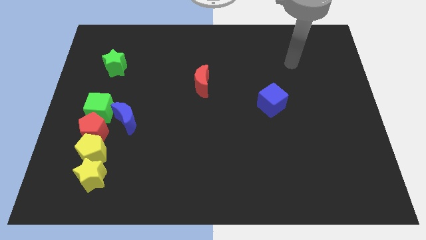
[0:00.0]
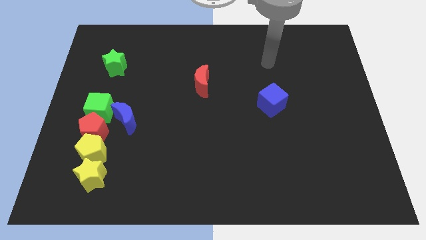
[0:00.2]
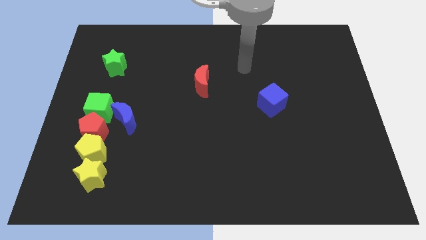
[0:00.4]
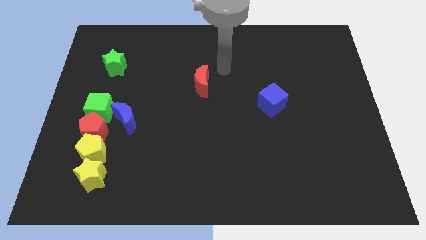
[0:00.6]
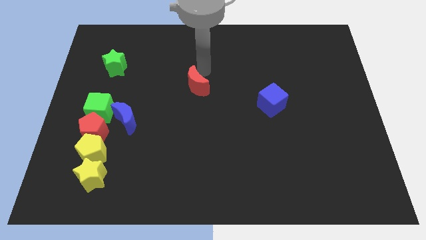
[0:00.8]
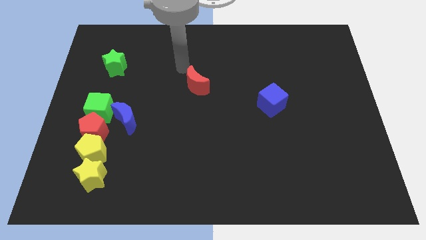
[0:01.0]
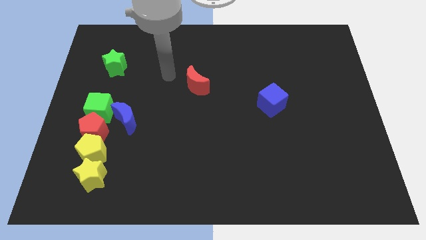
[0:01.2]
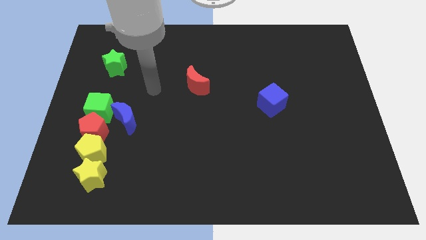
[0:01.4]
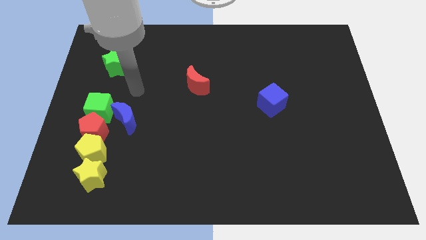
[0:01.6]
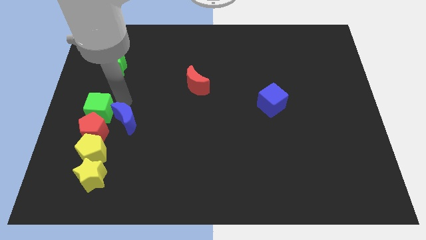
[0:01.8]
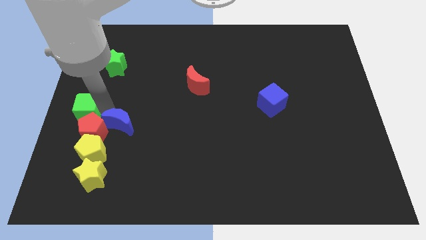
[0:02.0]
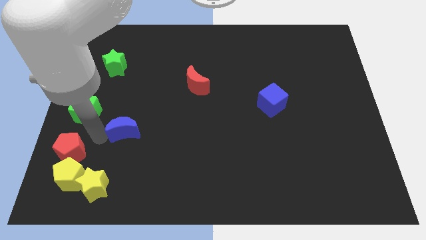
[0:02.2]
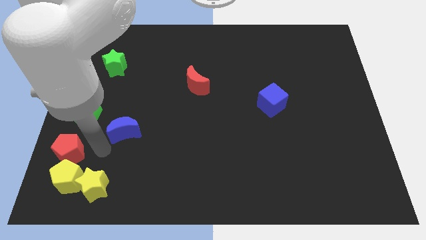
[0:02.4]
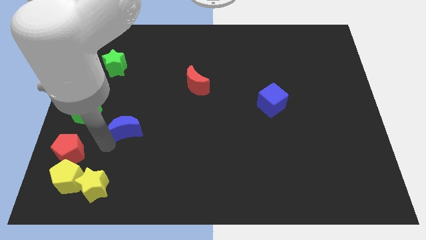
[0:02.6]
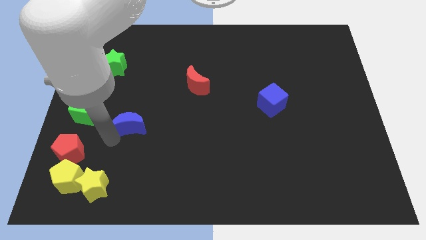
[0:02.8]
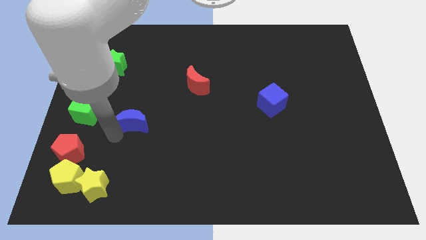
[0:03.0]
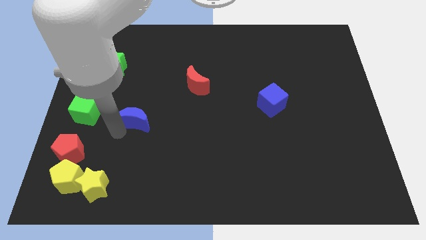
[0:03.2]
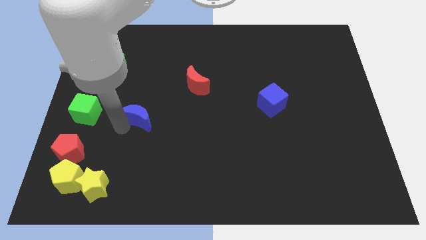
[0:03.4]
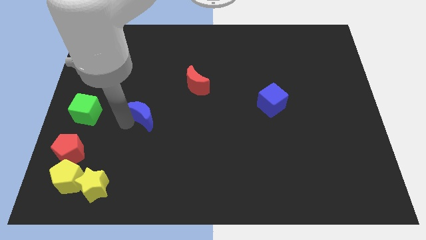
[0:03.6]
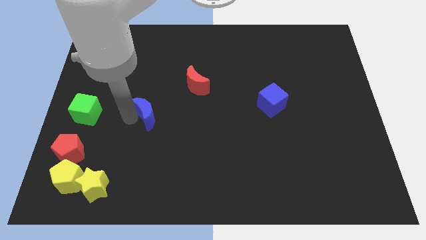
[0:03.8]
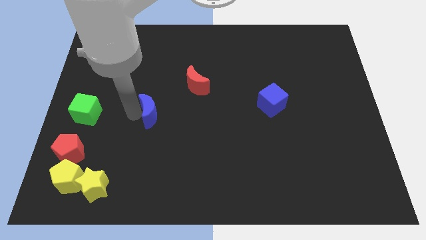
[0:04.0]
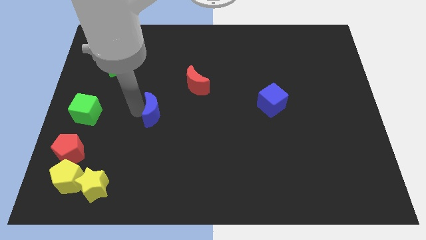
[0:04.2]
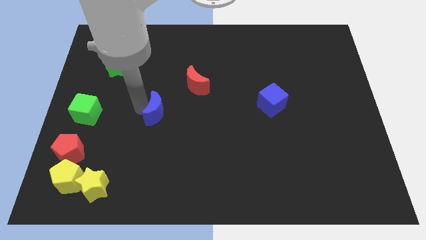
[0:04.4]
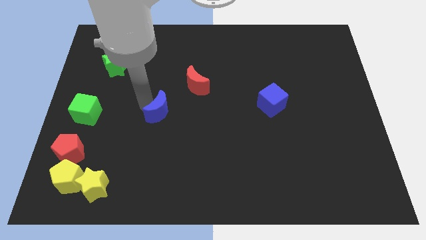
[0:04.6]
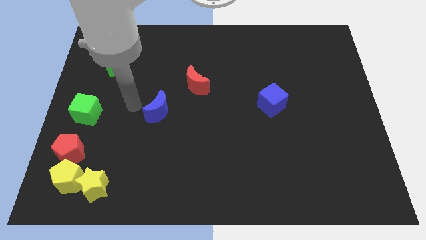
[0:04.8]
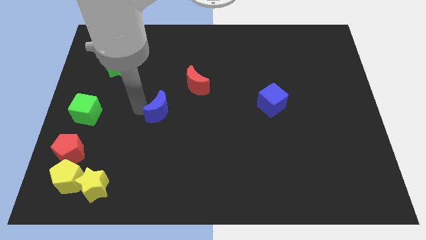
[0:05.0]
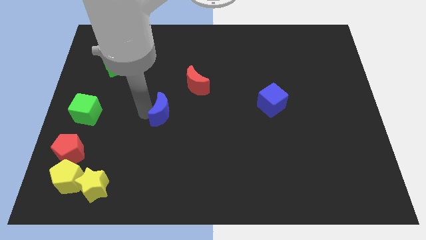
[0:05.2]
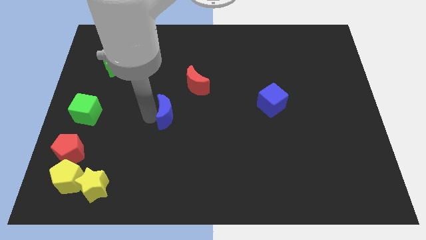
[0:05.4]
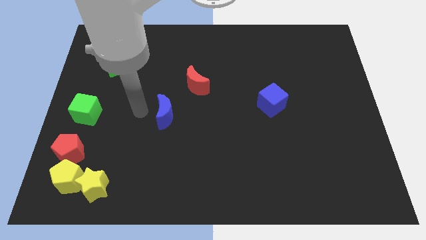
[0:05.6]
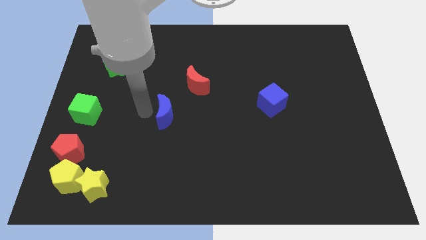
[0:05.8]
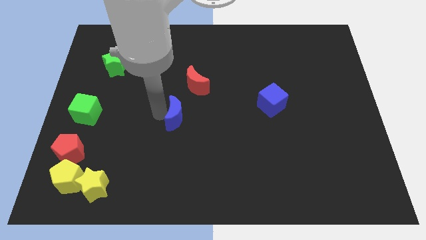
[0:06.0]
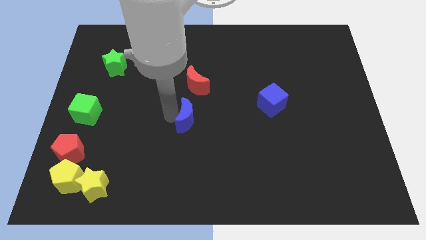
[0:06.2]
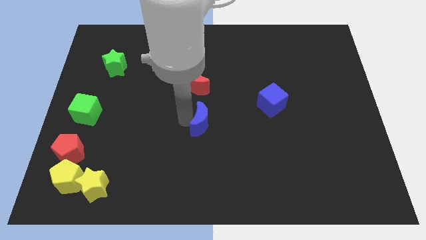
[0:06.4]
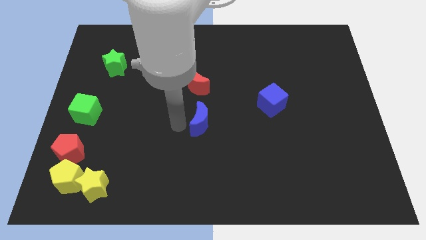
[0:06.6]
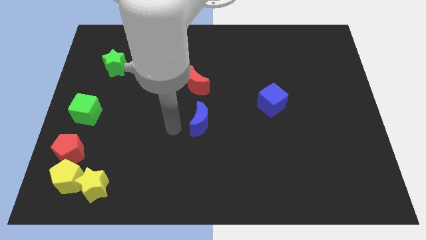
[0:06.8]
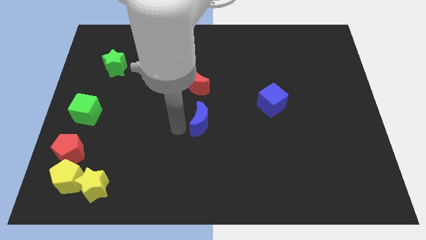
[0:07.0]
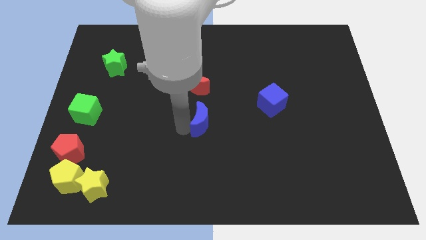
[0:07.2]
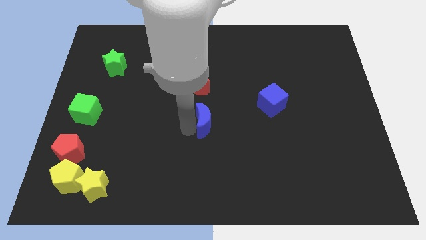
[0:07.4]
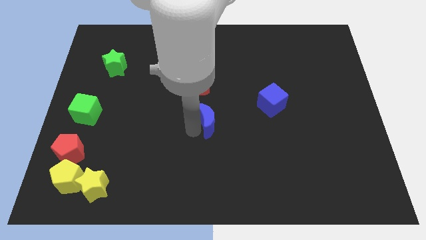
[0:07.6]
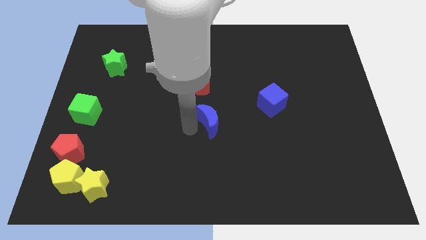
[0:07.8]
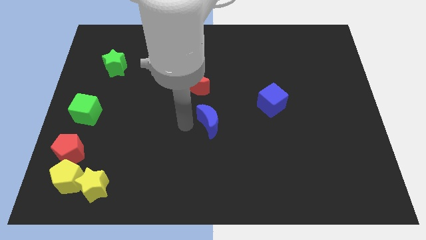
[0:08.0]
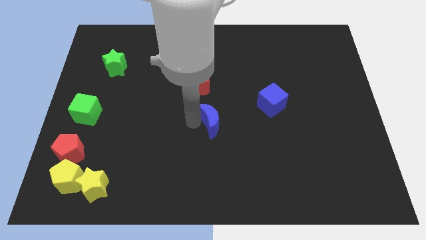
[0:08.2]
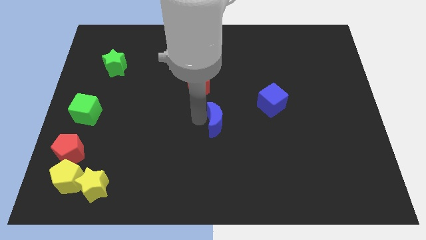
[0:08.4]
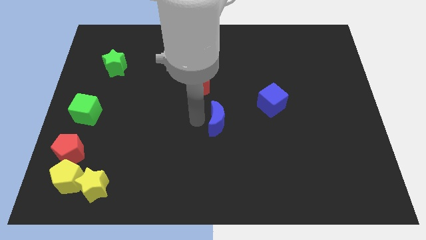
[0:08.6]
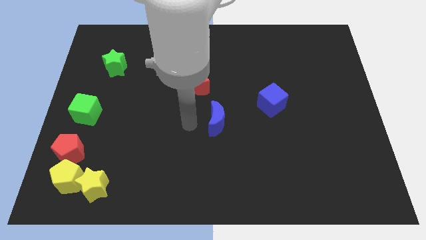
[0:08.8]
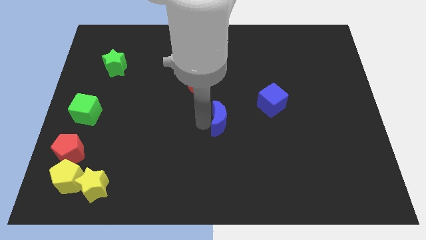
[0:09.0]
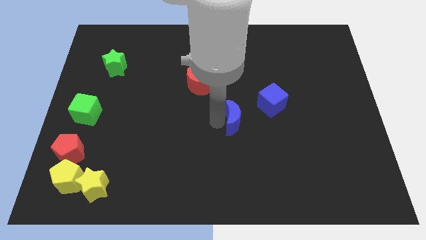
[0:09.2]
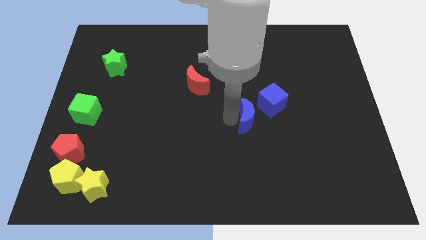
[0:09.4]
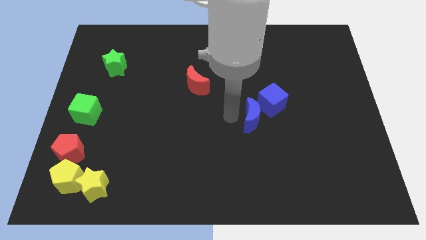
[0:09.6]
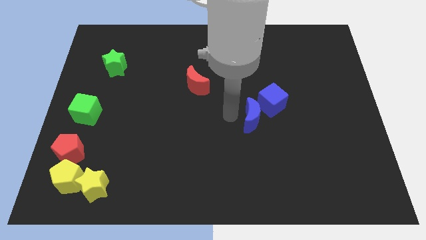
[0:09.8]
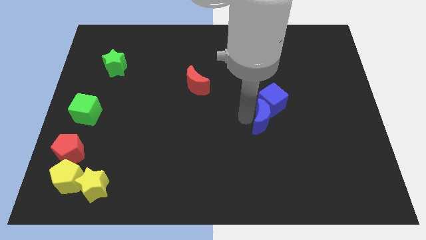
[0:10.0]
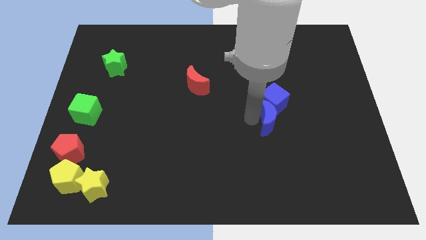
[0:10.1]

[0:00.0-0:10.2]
put the blue moon to the bottom right of the blue cube

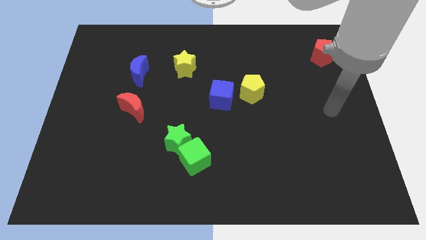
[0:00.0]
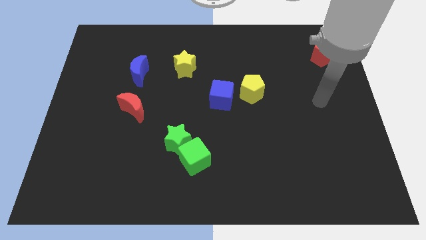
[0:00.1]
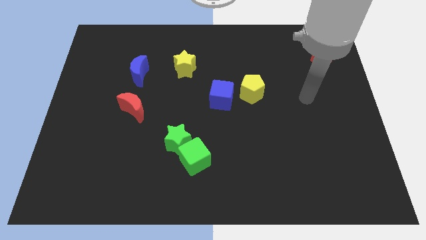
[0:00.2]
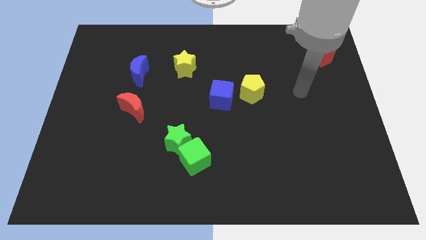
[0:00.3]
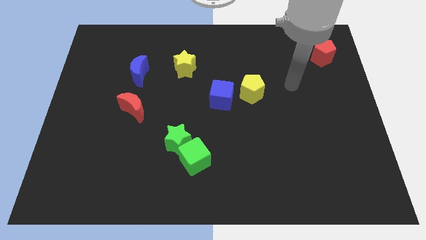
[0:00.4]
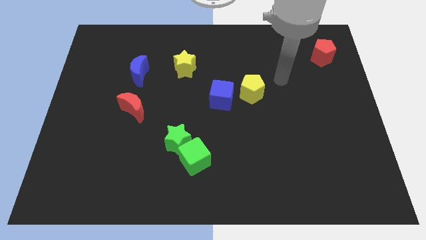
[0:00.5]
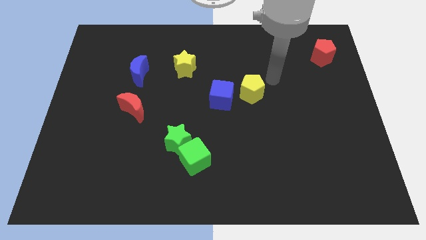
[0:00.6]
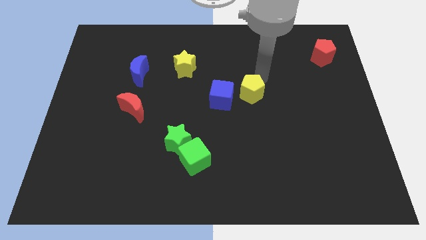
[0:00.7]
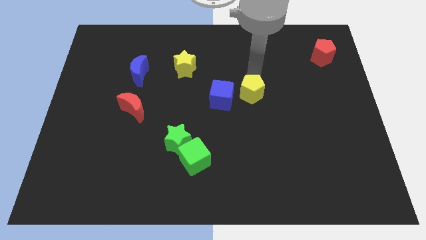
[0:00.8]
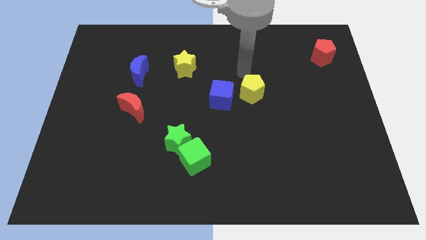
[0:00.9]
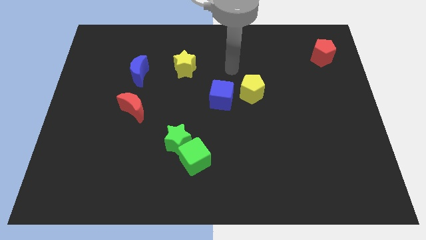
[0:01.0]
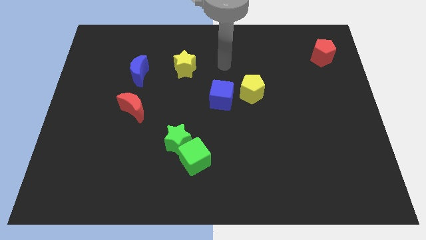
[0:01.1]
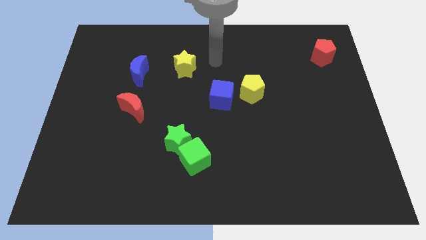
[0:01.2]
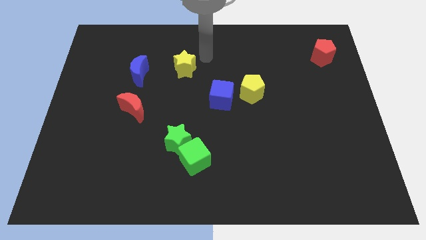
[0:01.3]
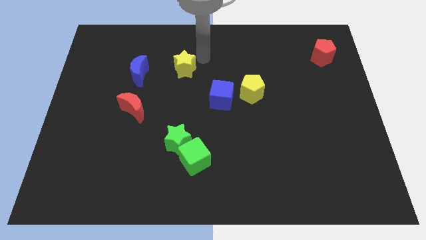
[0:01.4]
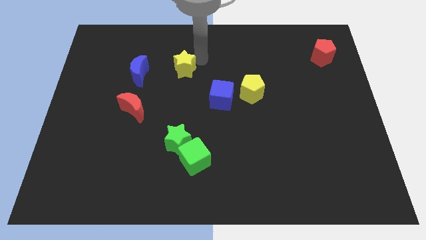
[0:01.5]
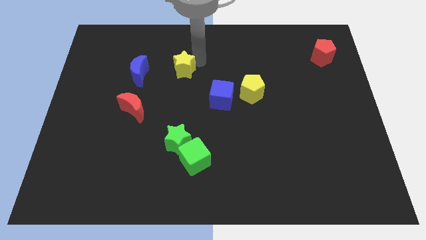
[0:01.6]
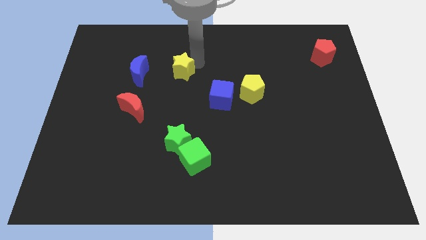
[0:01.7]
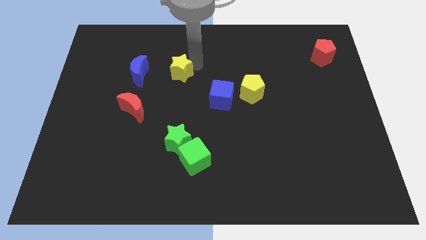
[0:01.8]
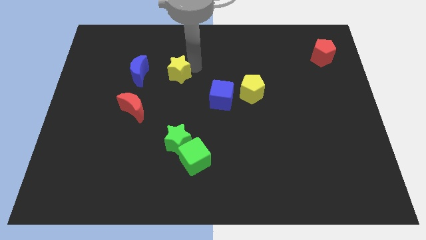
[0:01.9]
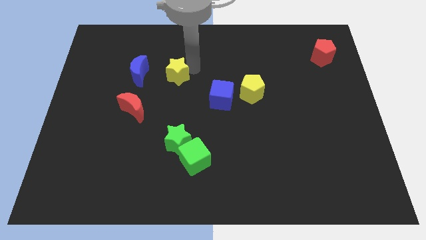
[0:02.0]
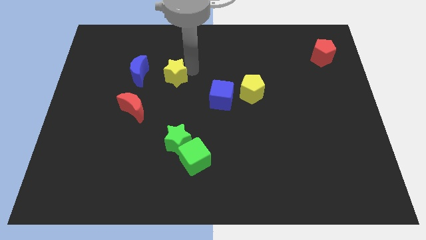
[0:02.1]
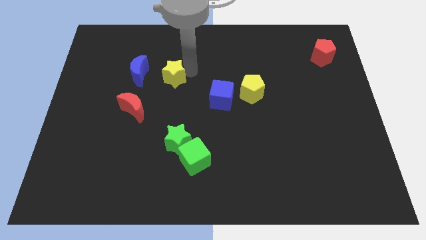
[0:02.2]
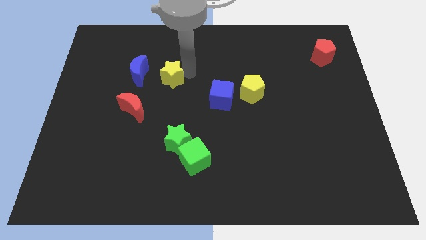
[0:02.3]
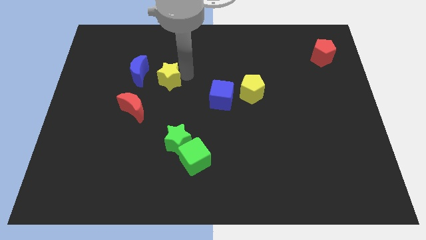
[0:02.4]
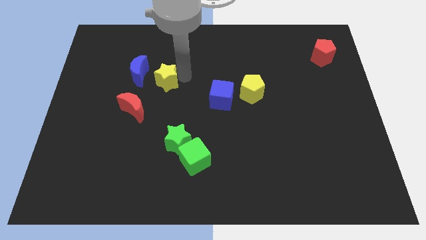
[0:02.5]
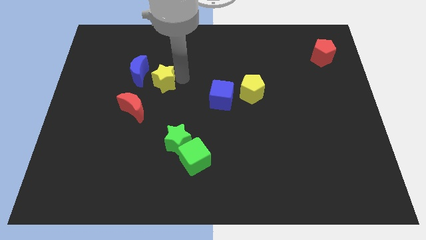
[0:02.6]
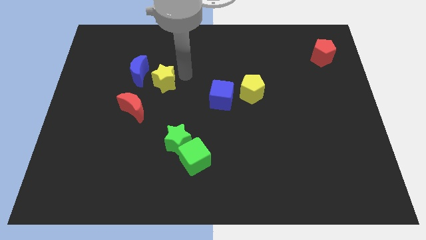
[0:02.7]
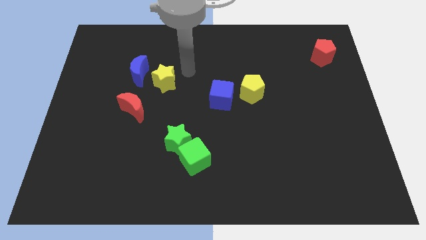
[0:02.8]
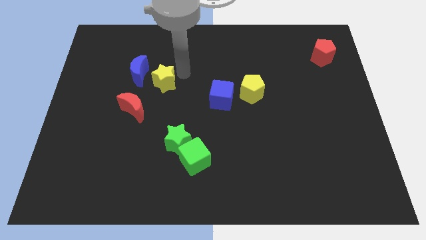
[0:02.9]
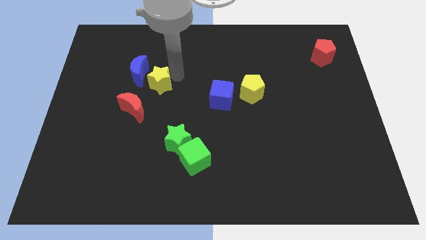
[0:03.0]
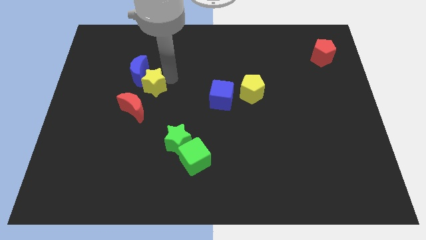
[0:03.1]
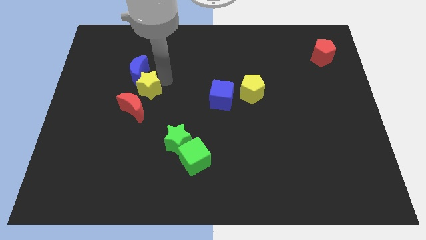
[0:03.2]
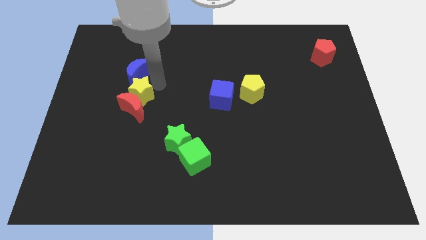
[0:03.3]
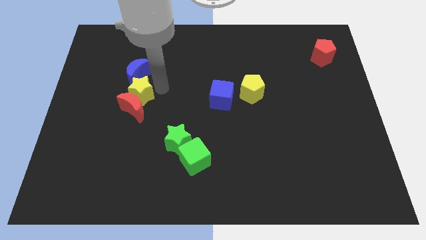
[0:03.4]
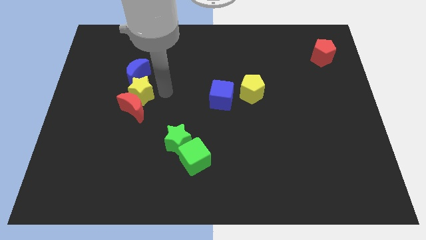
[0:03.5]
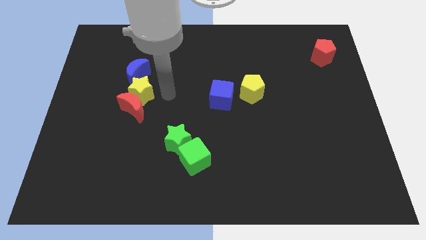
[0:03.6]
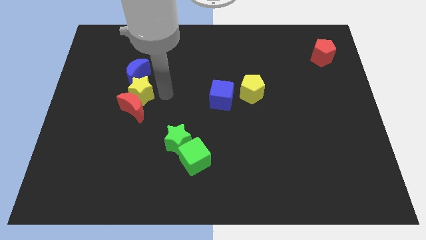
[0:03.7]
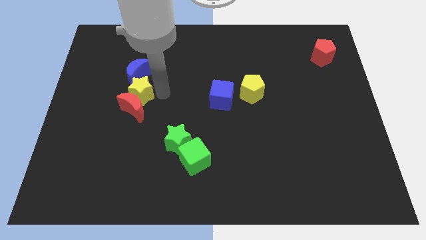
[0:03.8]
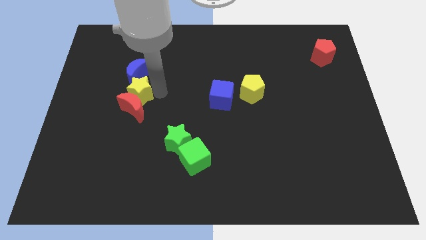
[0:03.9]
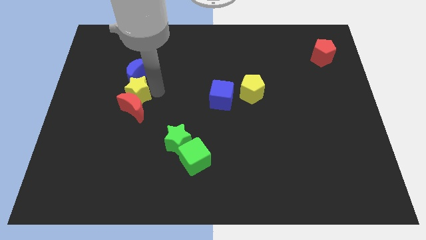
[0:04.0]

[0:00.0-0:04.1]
push the yellow star to the bottom left side of the blue moon
